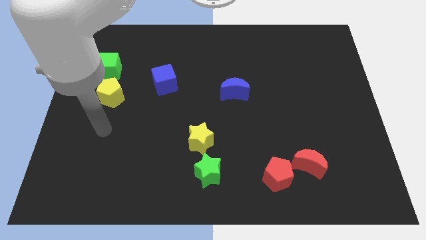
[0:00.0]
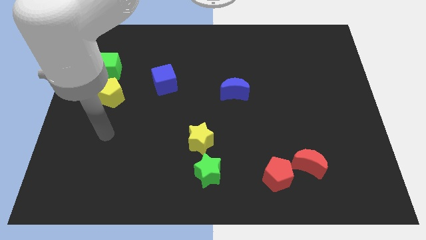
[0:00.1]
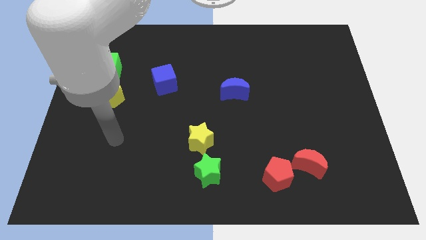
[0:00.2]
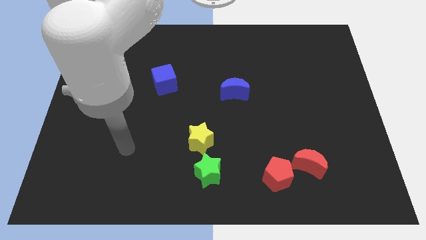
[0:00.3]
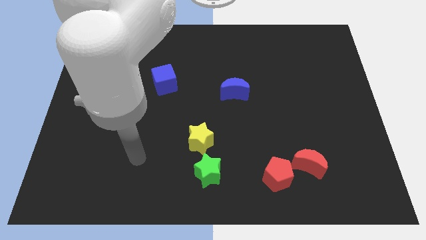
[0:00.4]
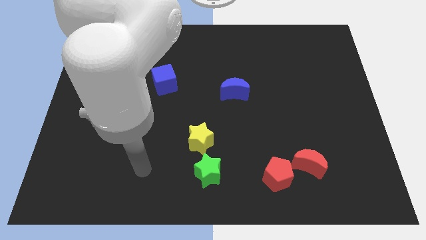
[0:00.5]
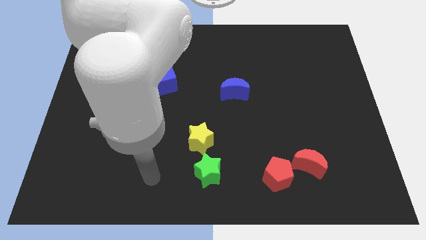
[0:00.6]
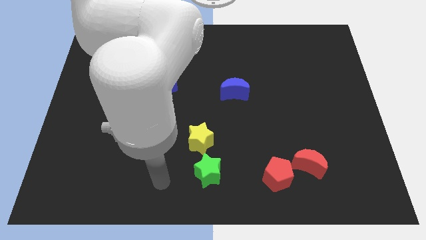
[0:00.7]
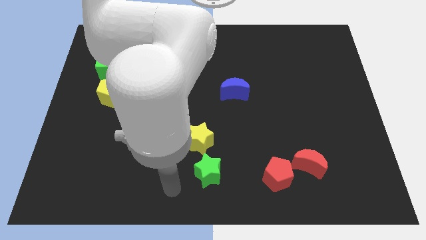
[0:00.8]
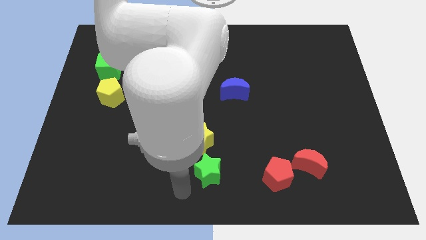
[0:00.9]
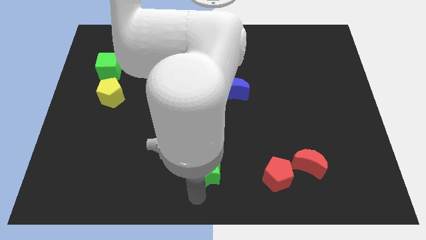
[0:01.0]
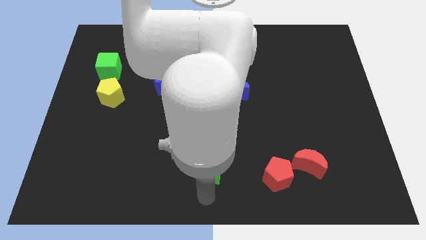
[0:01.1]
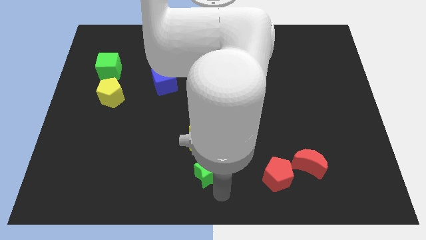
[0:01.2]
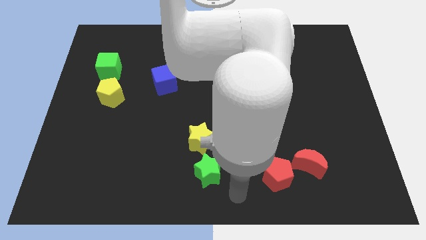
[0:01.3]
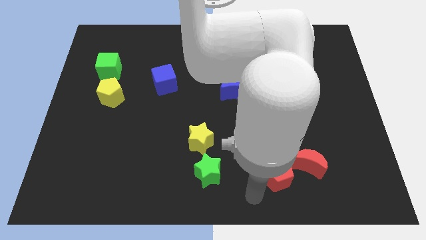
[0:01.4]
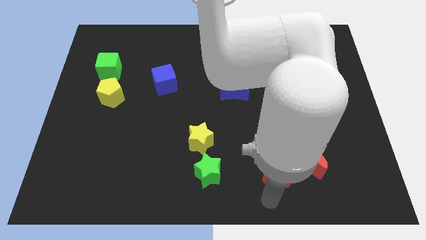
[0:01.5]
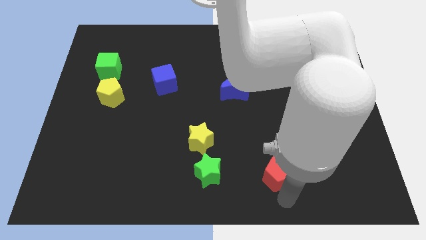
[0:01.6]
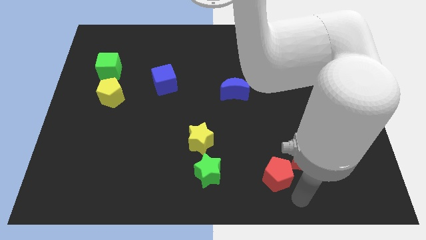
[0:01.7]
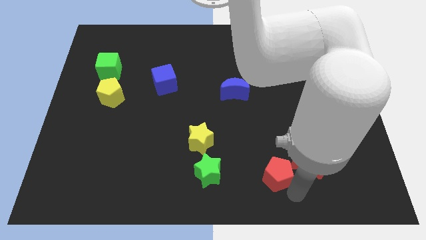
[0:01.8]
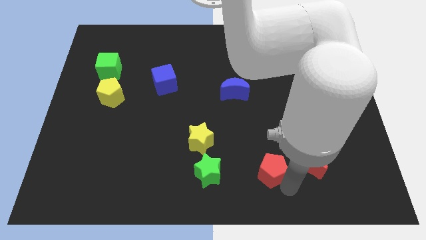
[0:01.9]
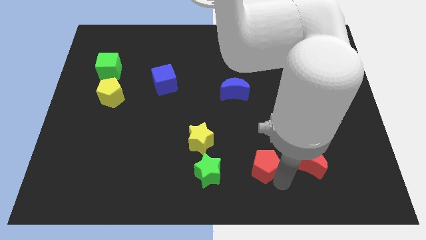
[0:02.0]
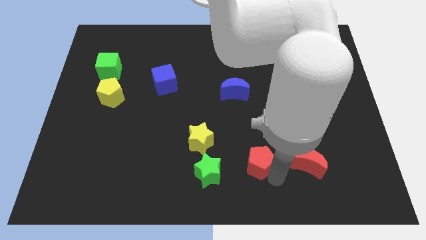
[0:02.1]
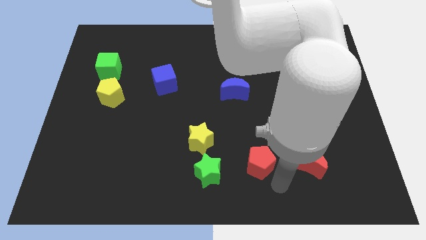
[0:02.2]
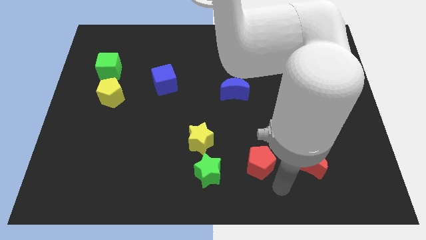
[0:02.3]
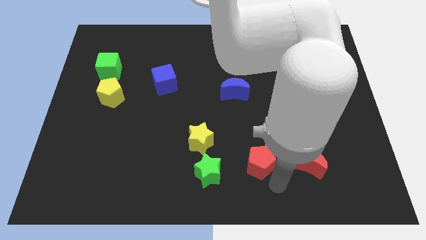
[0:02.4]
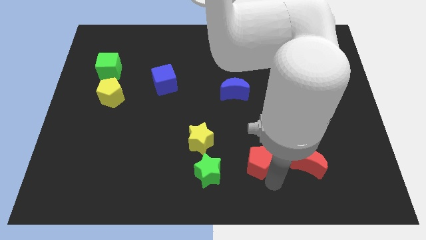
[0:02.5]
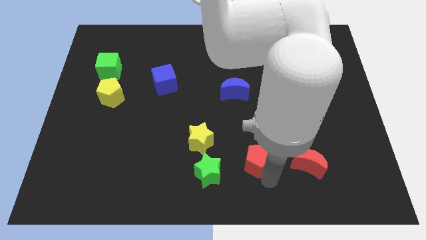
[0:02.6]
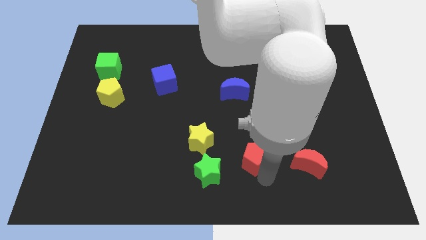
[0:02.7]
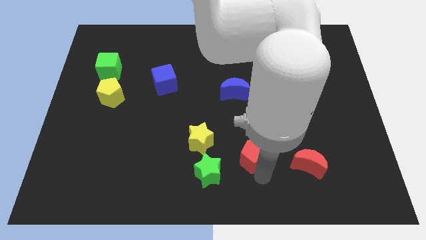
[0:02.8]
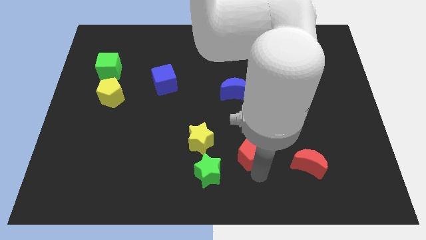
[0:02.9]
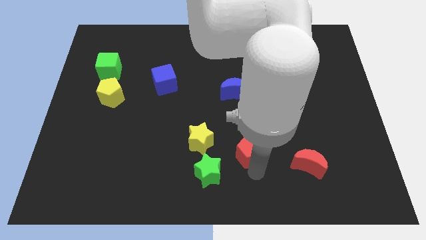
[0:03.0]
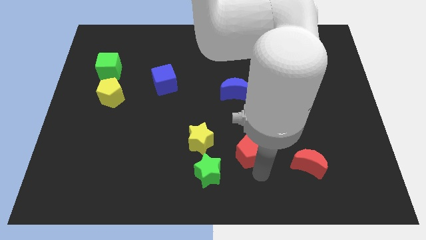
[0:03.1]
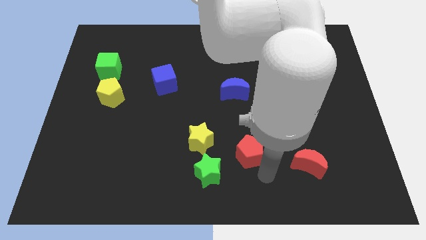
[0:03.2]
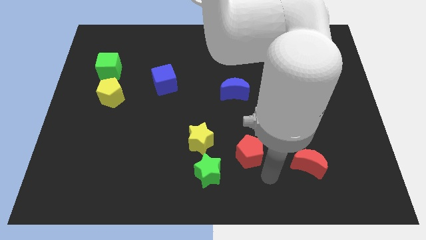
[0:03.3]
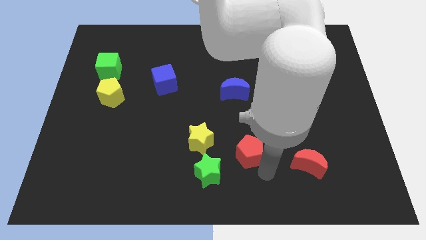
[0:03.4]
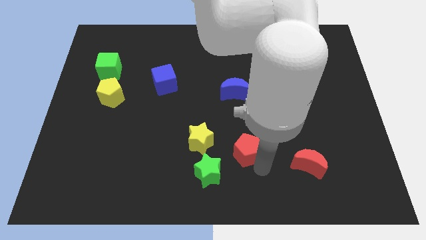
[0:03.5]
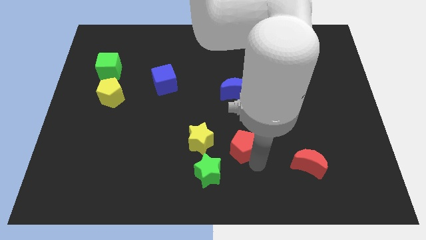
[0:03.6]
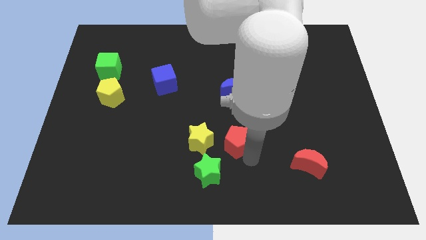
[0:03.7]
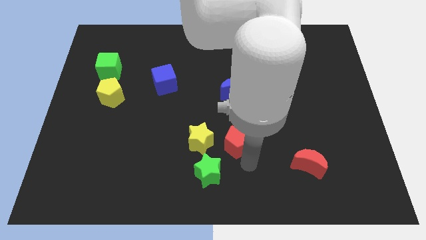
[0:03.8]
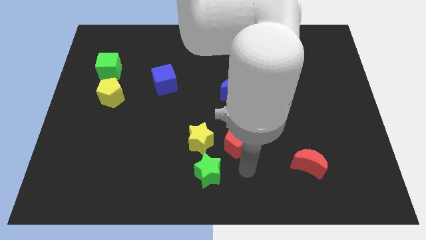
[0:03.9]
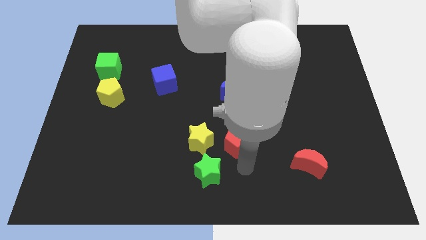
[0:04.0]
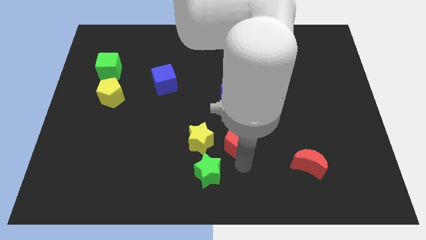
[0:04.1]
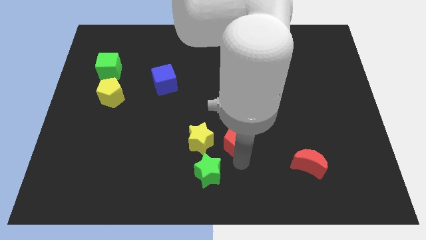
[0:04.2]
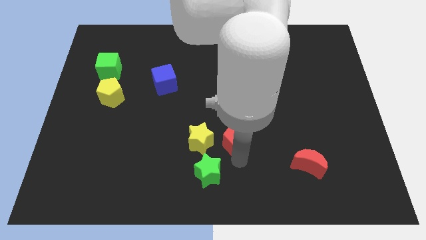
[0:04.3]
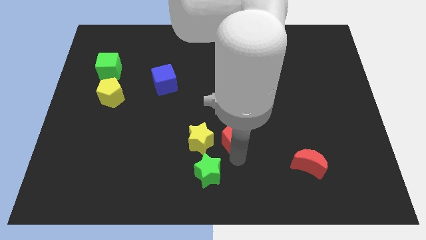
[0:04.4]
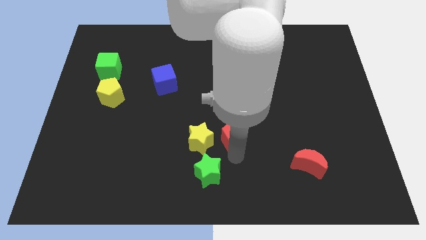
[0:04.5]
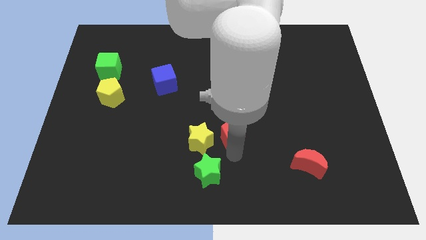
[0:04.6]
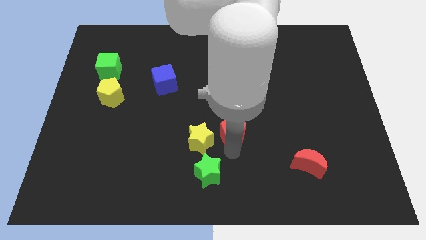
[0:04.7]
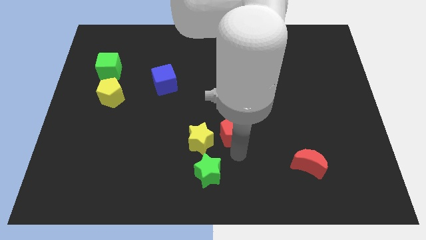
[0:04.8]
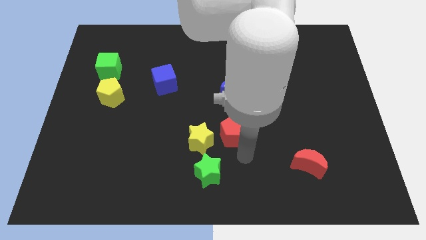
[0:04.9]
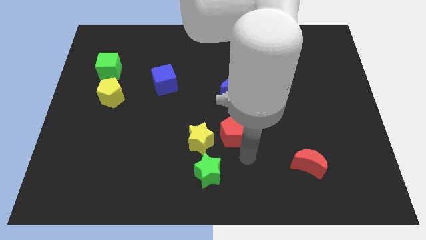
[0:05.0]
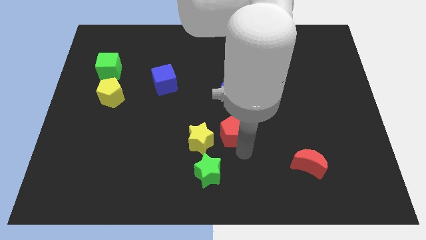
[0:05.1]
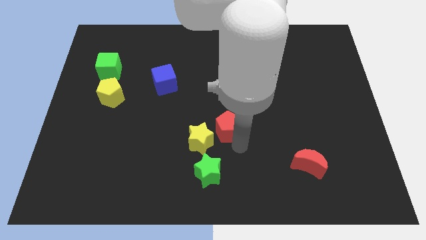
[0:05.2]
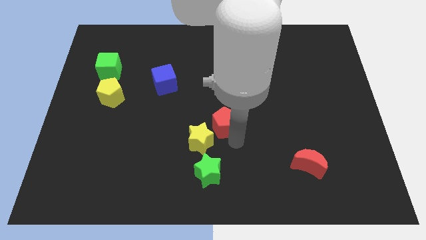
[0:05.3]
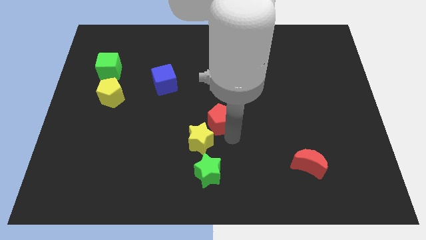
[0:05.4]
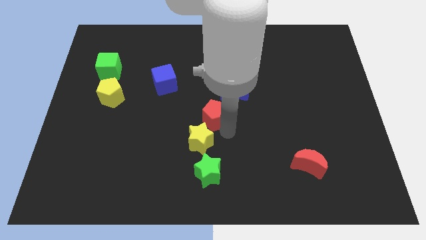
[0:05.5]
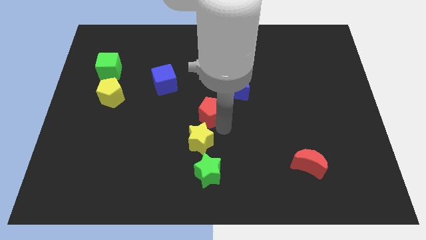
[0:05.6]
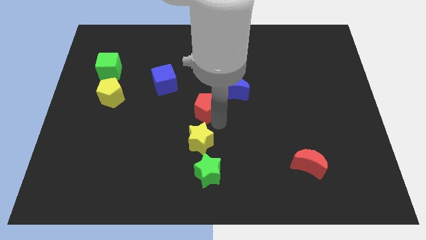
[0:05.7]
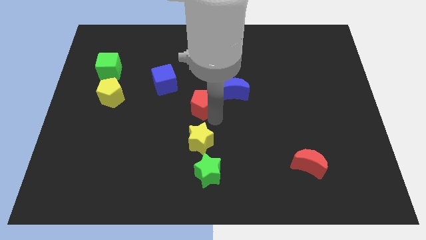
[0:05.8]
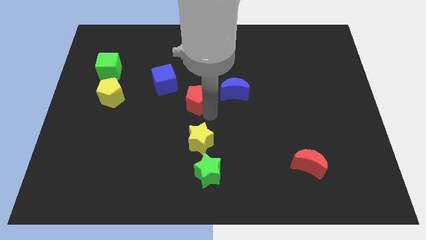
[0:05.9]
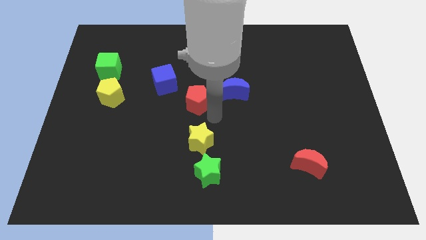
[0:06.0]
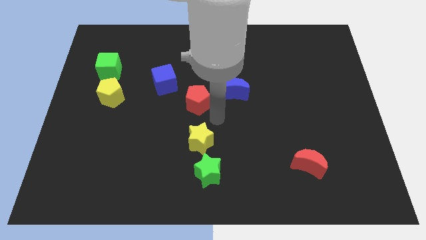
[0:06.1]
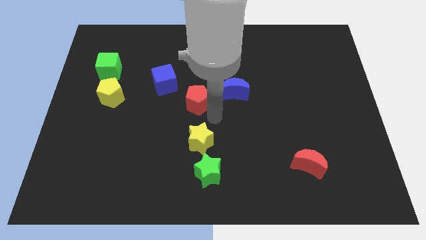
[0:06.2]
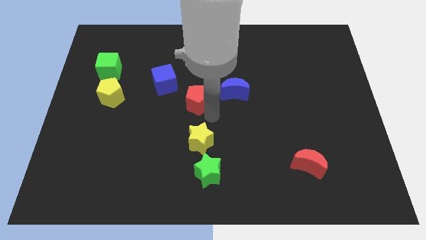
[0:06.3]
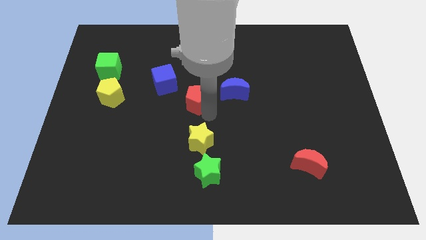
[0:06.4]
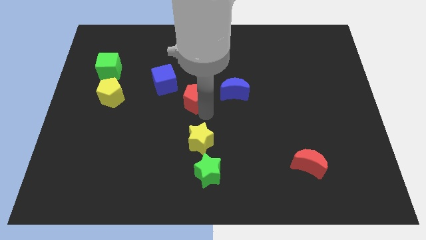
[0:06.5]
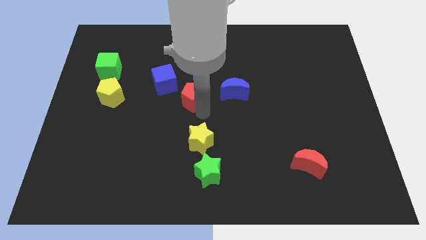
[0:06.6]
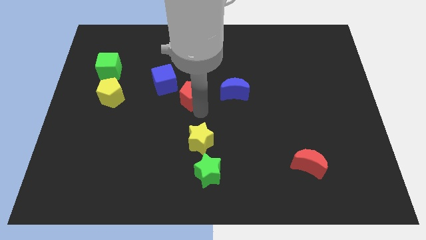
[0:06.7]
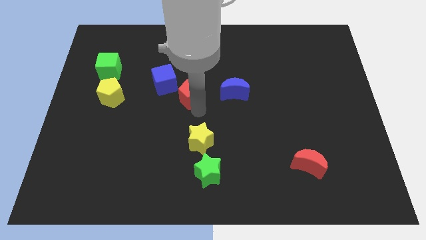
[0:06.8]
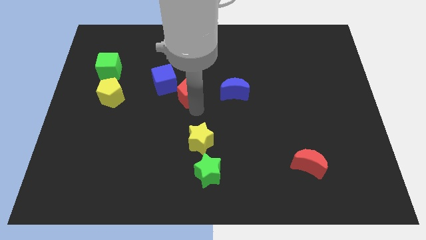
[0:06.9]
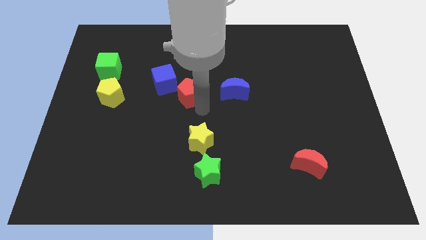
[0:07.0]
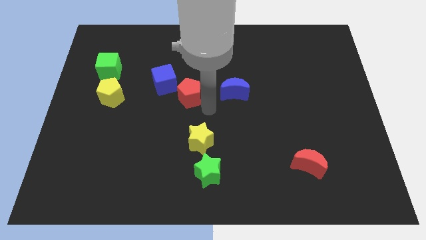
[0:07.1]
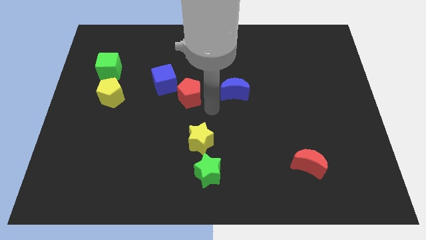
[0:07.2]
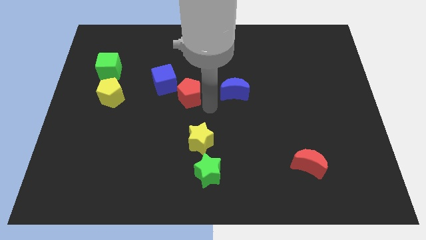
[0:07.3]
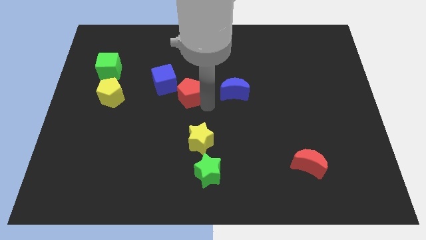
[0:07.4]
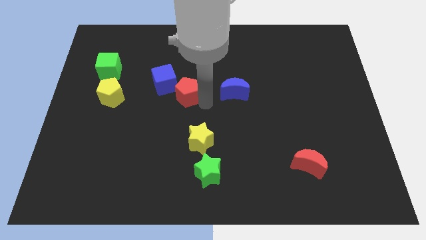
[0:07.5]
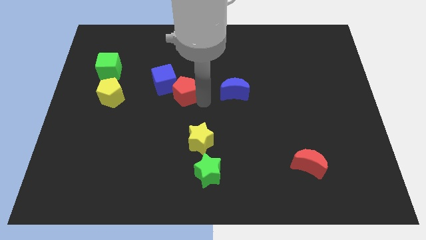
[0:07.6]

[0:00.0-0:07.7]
push the red pentagon next to the blue cube
